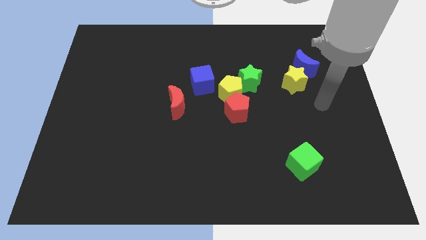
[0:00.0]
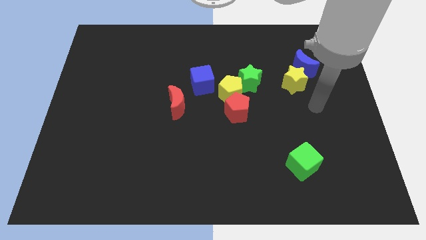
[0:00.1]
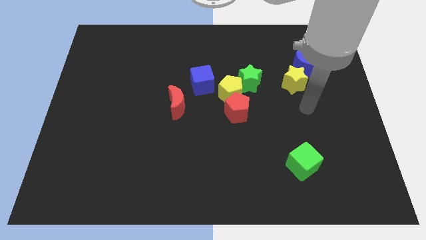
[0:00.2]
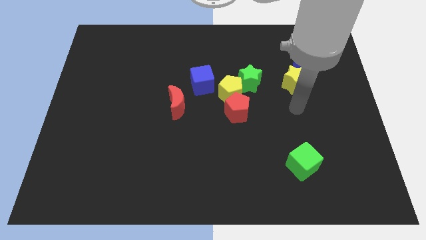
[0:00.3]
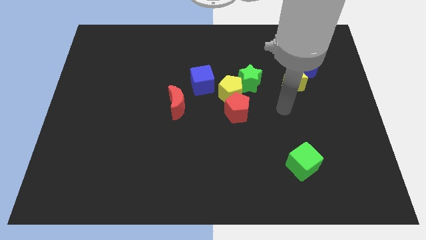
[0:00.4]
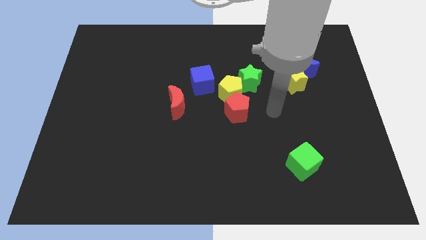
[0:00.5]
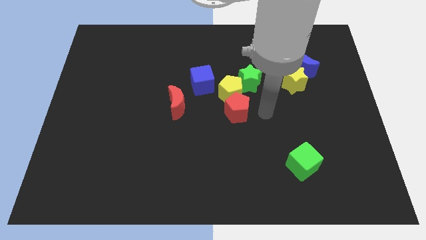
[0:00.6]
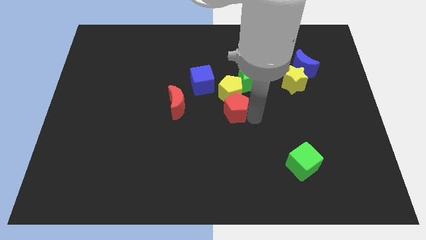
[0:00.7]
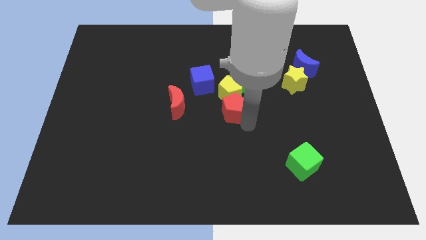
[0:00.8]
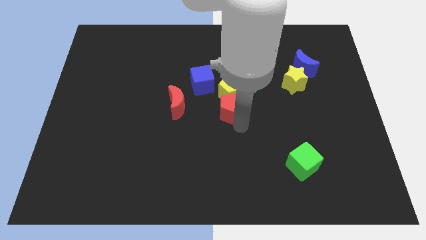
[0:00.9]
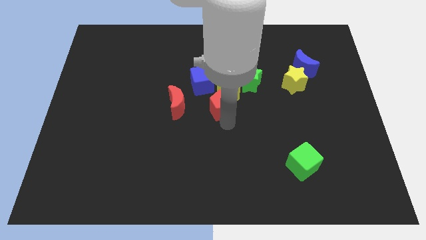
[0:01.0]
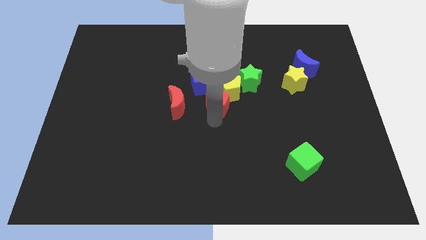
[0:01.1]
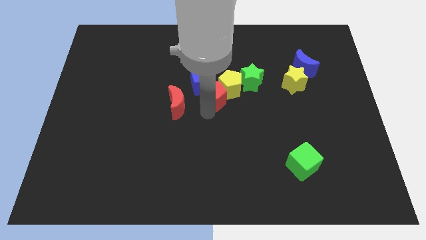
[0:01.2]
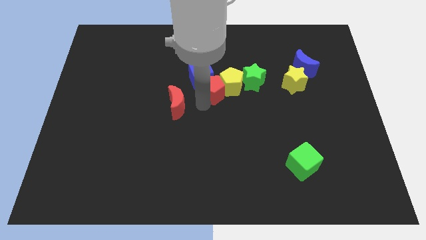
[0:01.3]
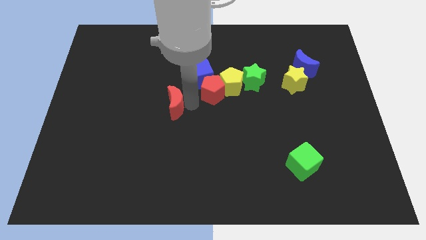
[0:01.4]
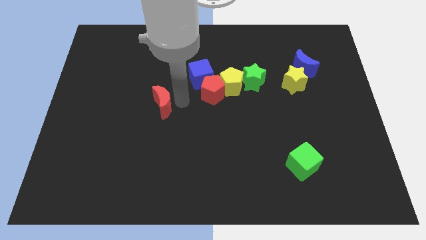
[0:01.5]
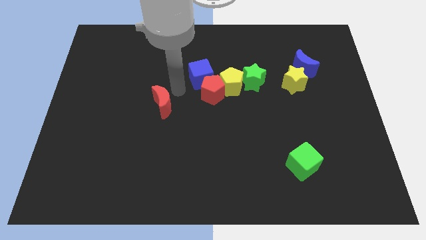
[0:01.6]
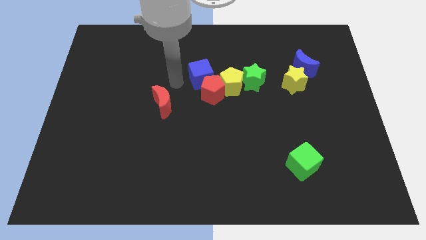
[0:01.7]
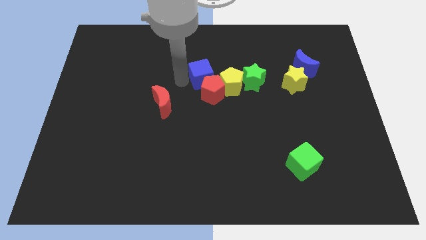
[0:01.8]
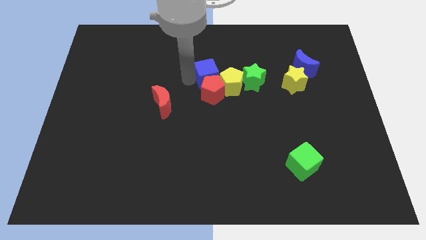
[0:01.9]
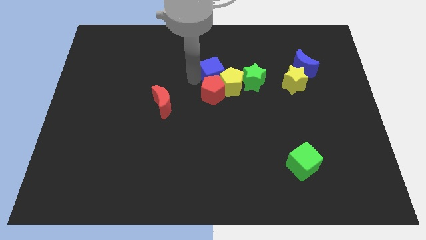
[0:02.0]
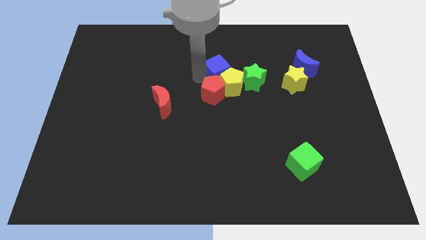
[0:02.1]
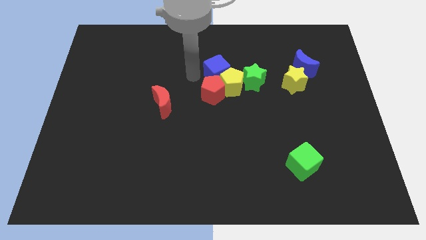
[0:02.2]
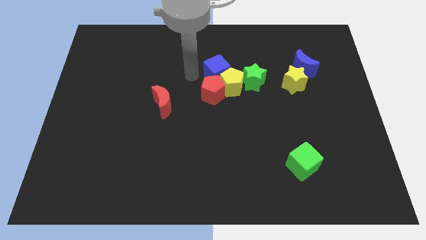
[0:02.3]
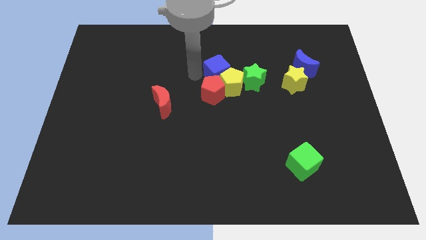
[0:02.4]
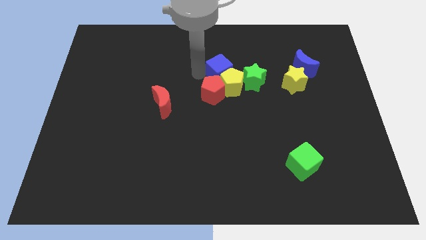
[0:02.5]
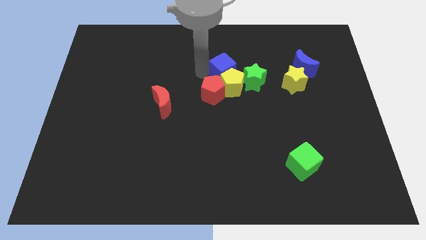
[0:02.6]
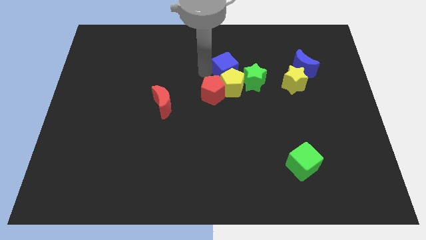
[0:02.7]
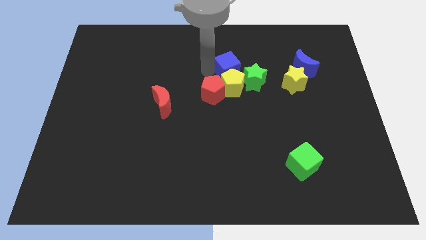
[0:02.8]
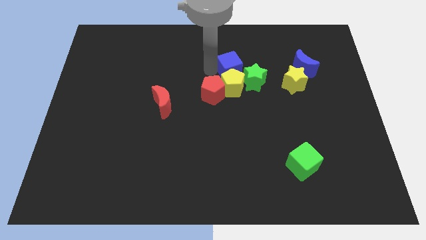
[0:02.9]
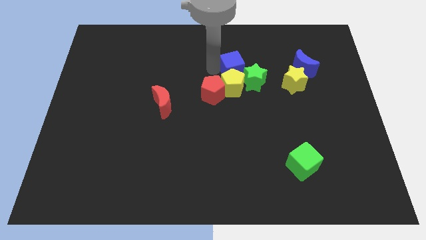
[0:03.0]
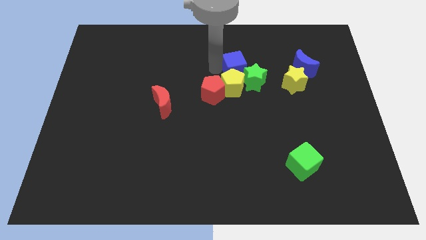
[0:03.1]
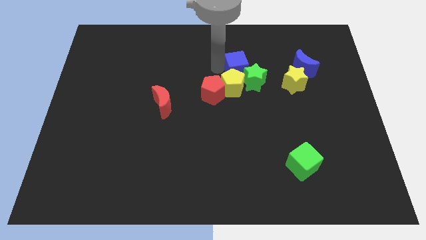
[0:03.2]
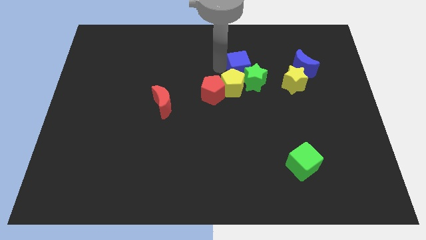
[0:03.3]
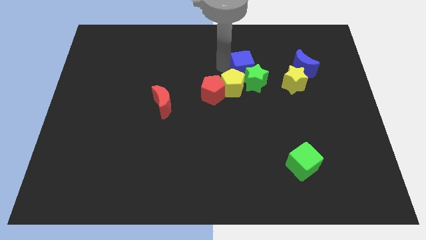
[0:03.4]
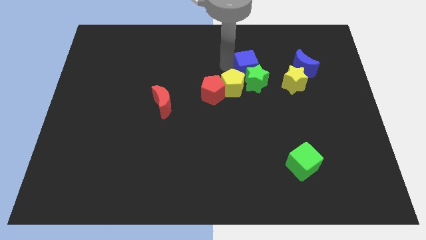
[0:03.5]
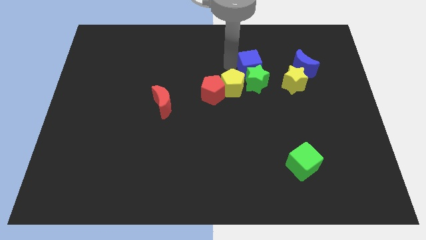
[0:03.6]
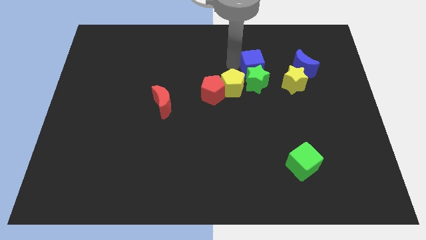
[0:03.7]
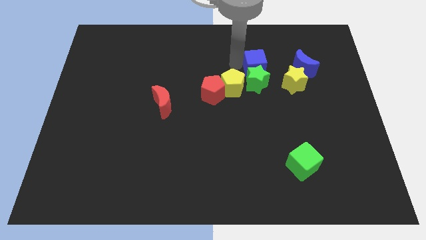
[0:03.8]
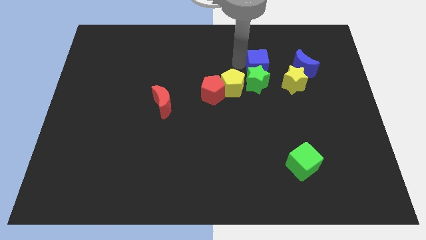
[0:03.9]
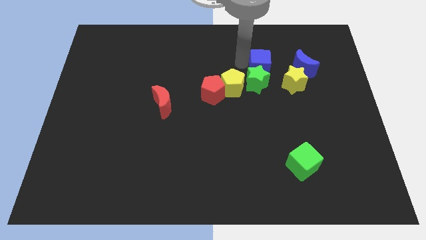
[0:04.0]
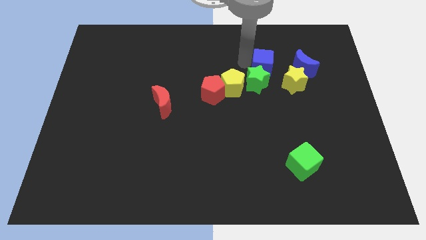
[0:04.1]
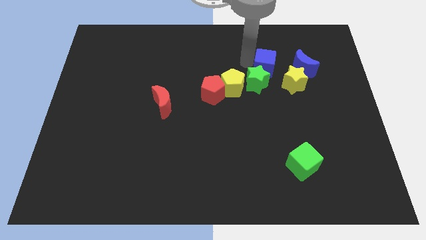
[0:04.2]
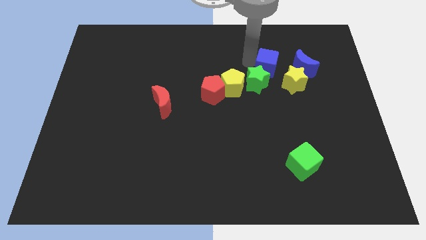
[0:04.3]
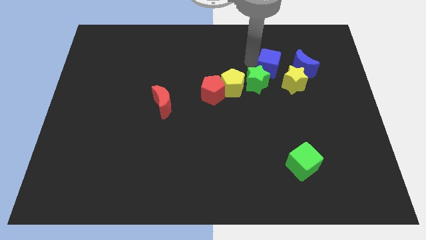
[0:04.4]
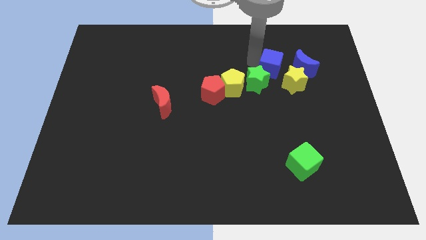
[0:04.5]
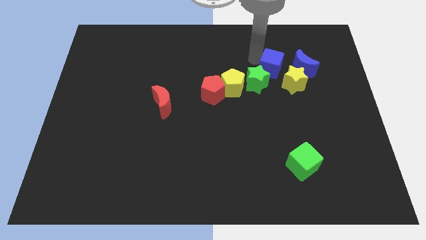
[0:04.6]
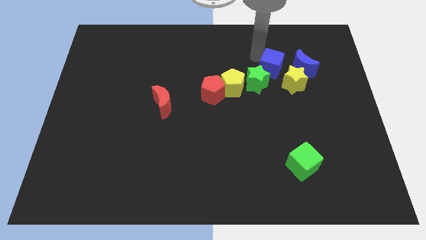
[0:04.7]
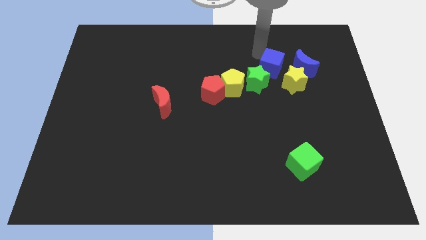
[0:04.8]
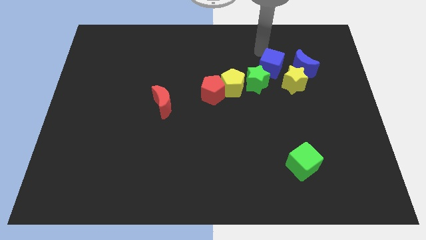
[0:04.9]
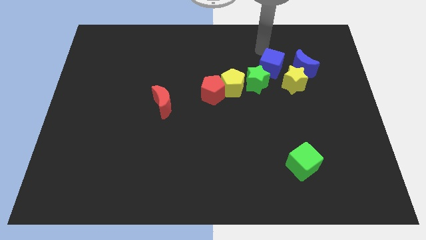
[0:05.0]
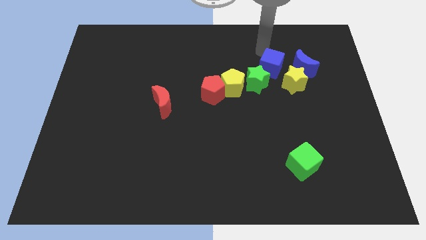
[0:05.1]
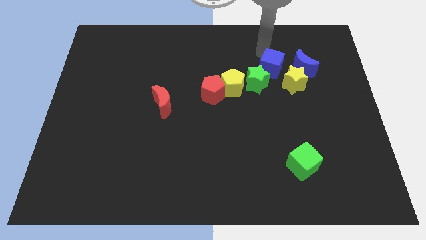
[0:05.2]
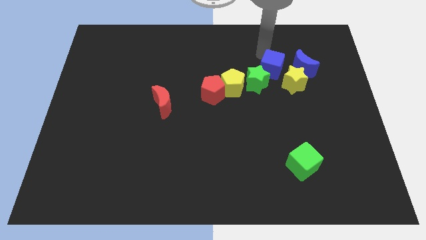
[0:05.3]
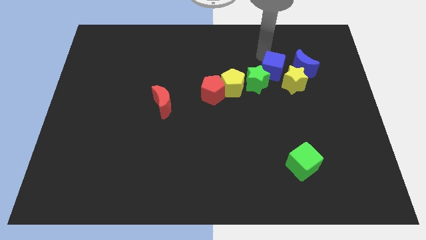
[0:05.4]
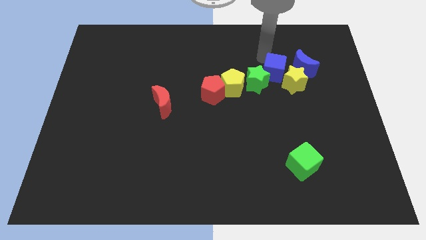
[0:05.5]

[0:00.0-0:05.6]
push the blue cube towards the yellow star

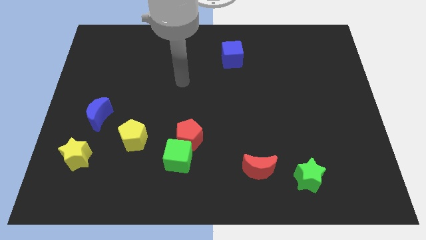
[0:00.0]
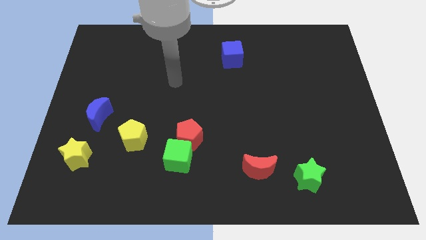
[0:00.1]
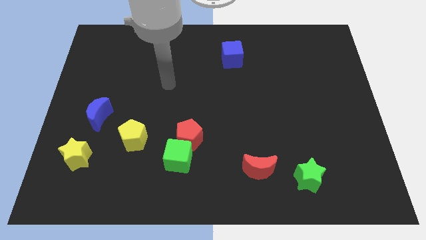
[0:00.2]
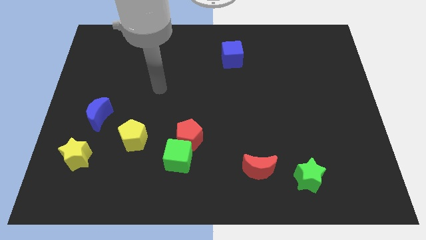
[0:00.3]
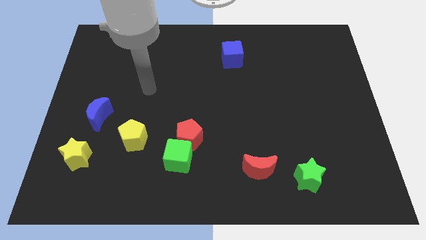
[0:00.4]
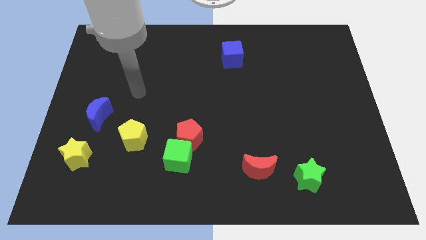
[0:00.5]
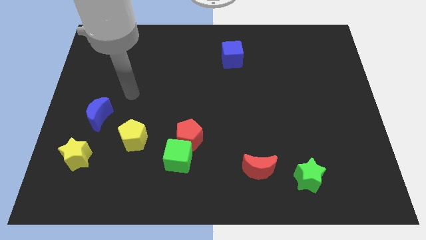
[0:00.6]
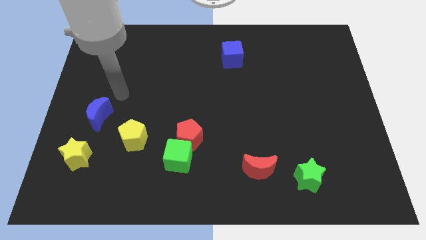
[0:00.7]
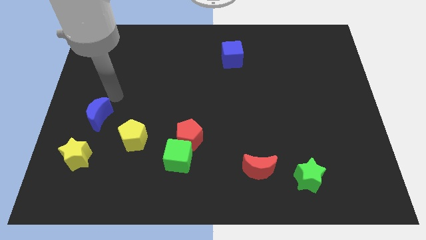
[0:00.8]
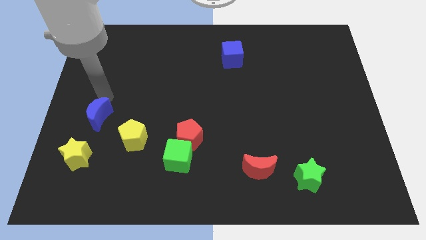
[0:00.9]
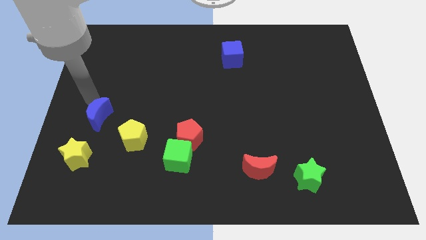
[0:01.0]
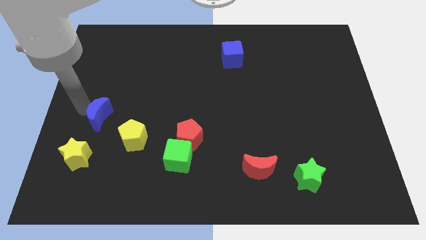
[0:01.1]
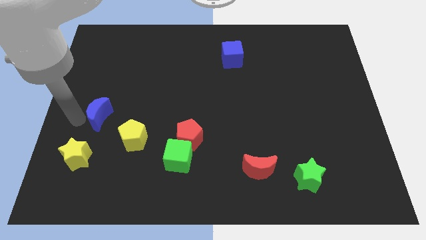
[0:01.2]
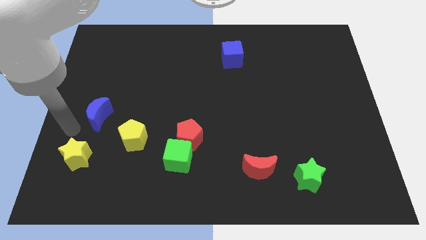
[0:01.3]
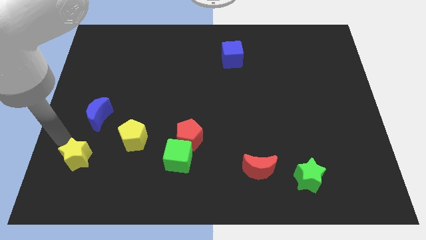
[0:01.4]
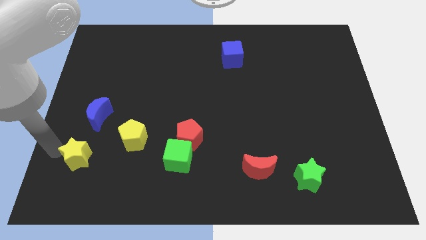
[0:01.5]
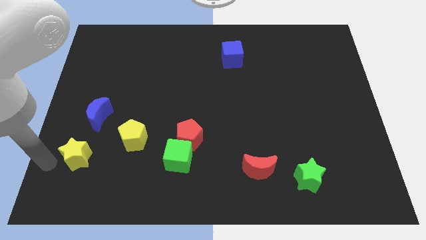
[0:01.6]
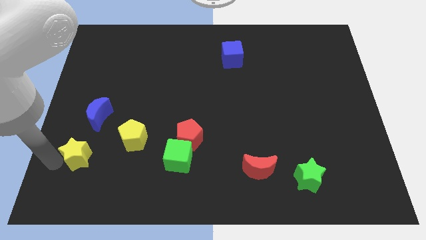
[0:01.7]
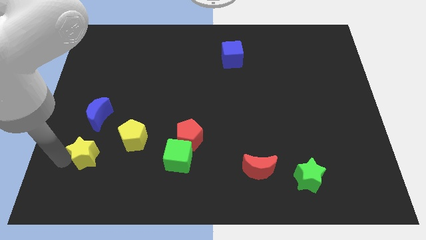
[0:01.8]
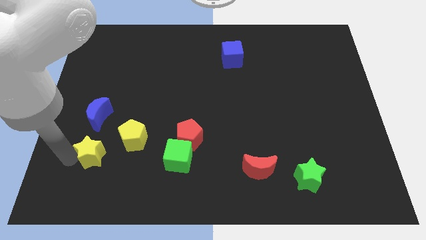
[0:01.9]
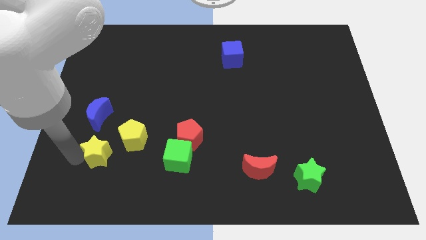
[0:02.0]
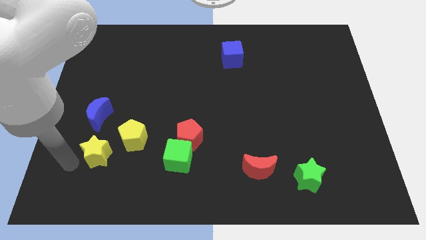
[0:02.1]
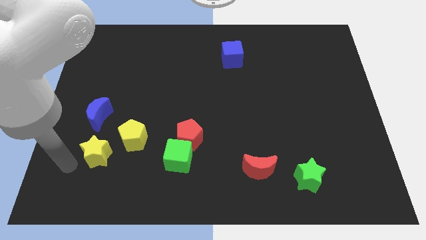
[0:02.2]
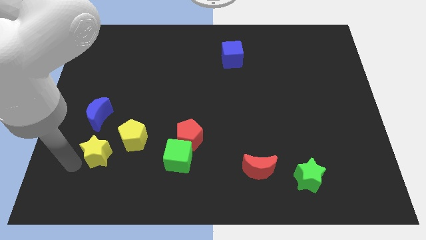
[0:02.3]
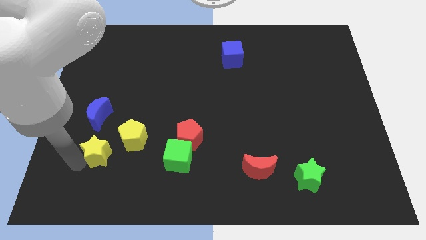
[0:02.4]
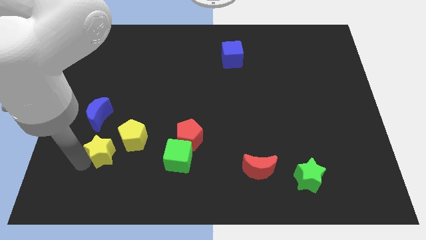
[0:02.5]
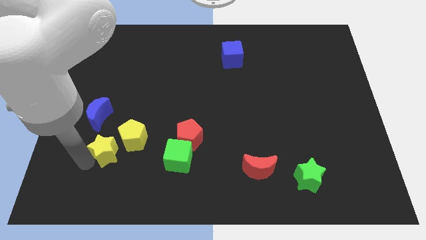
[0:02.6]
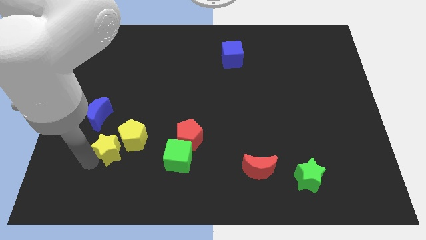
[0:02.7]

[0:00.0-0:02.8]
move the yellow star towards the yellow pentagon
